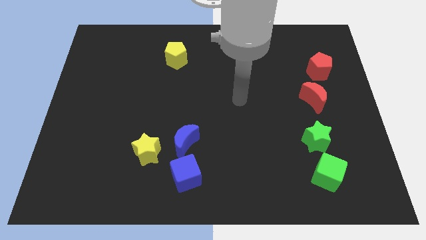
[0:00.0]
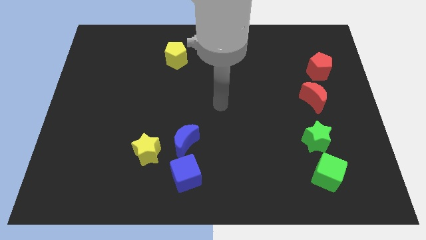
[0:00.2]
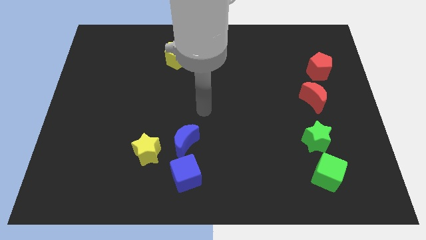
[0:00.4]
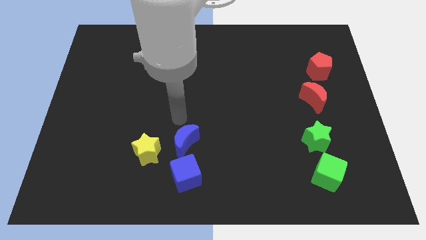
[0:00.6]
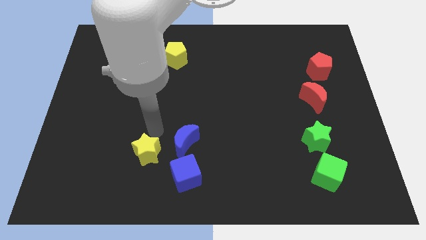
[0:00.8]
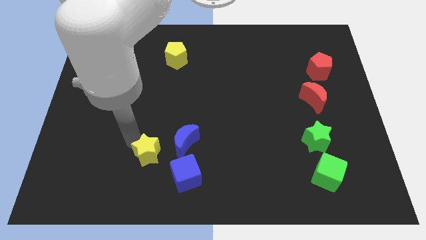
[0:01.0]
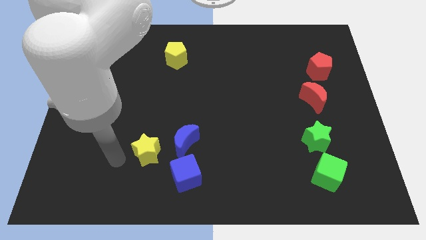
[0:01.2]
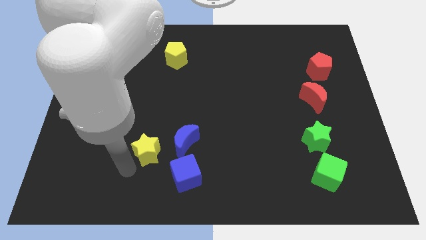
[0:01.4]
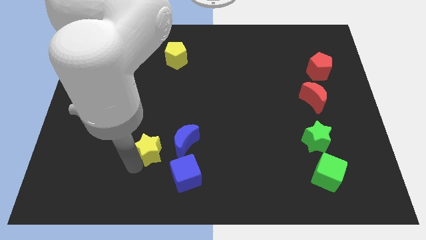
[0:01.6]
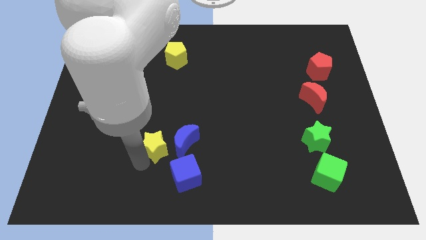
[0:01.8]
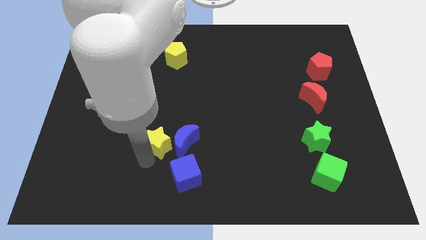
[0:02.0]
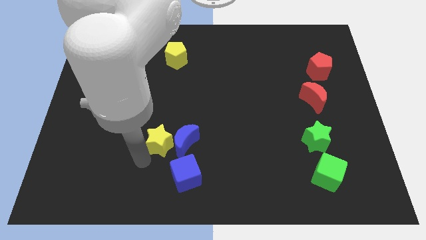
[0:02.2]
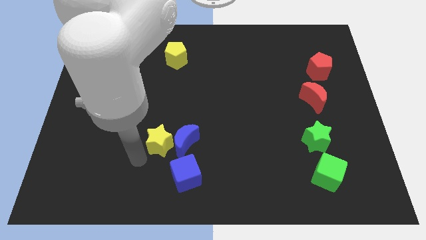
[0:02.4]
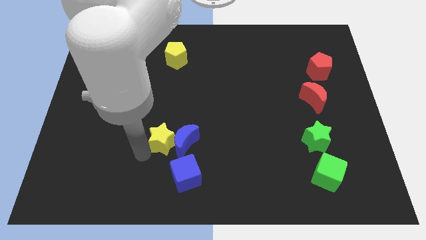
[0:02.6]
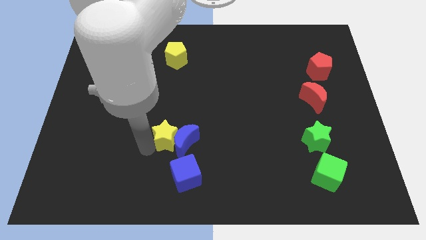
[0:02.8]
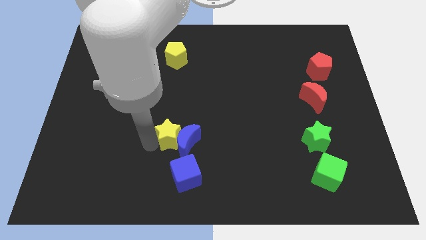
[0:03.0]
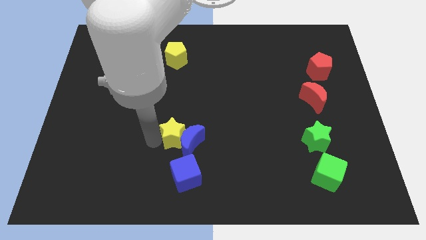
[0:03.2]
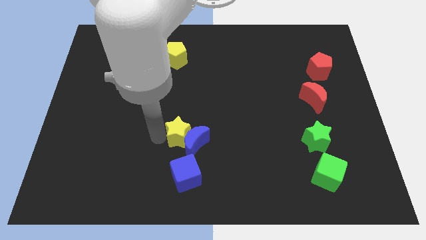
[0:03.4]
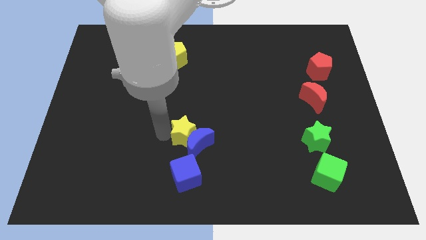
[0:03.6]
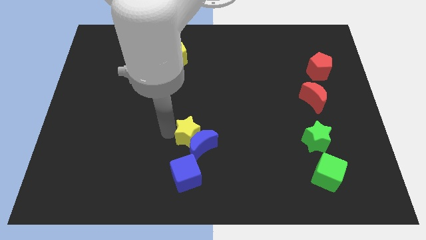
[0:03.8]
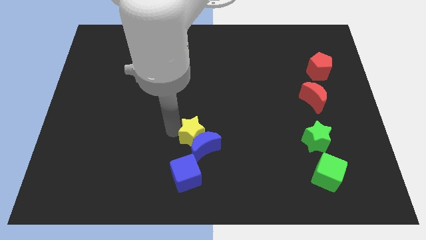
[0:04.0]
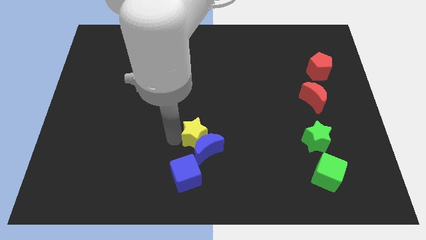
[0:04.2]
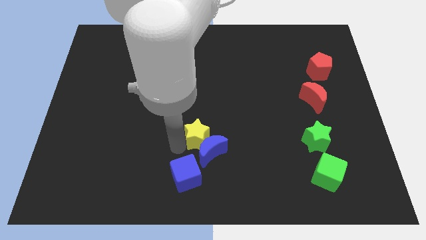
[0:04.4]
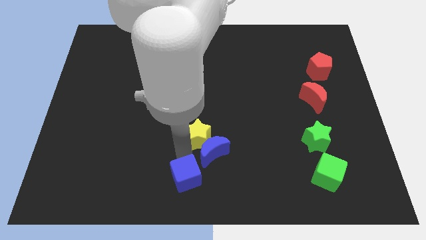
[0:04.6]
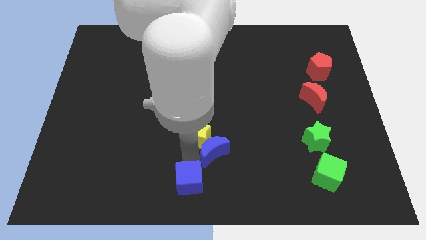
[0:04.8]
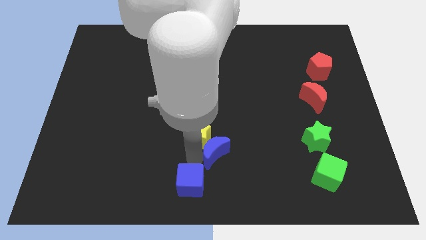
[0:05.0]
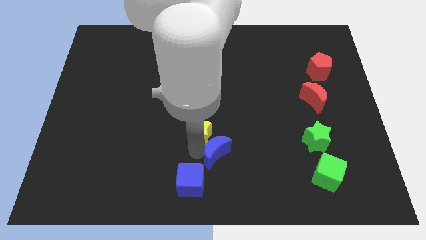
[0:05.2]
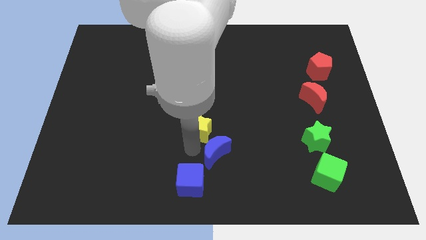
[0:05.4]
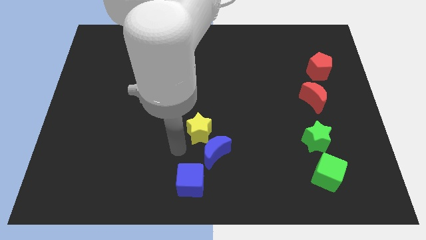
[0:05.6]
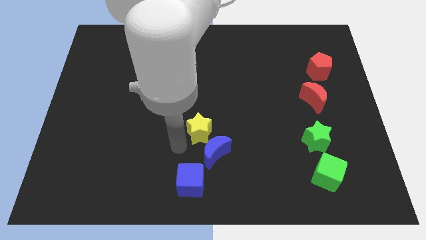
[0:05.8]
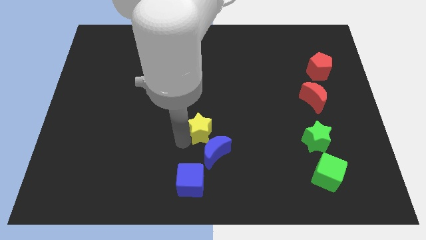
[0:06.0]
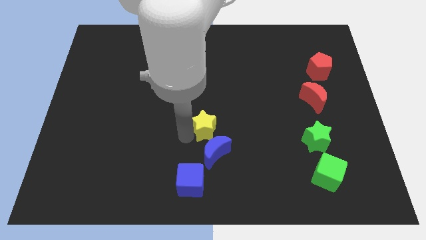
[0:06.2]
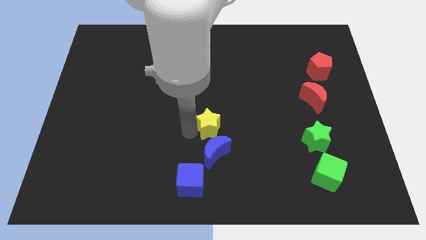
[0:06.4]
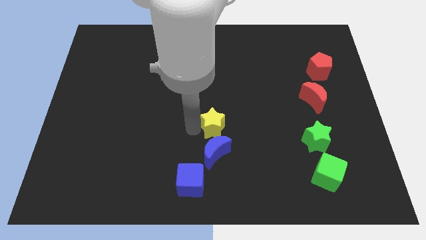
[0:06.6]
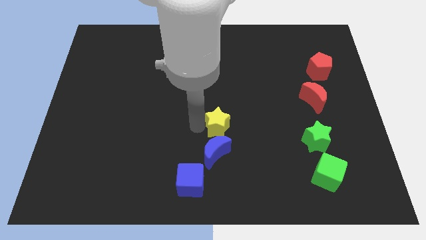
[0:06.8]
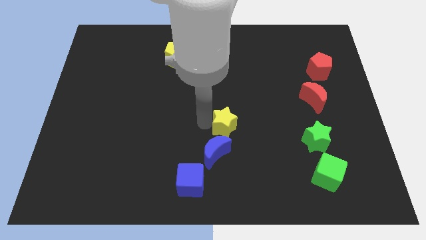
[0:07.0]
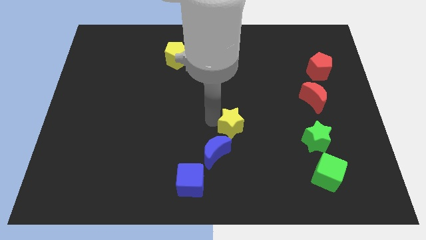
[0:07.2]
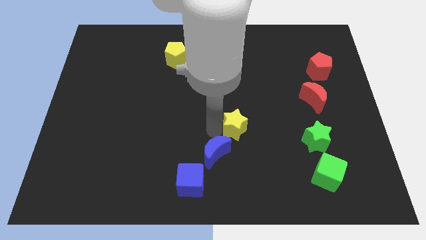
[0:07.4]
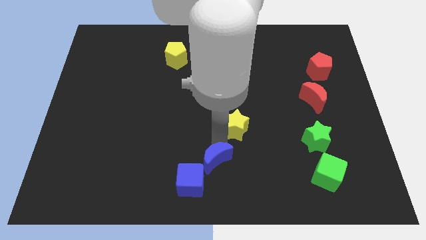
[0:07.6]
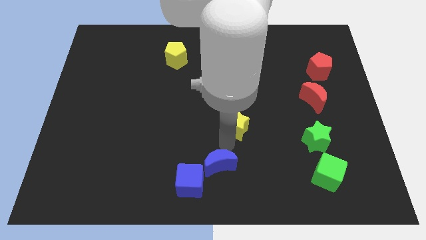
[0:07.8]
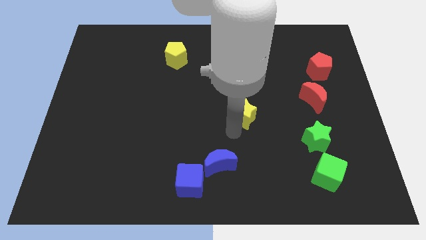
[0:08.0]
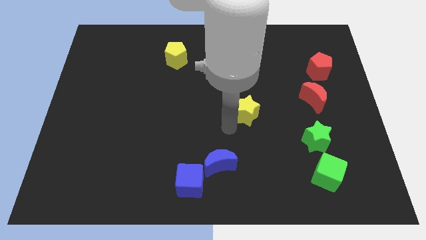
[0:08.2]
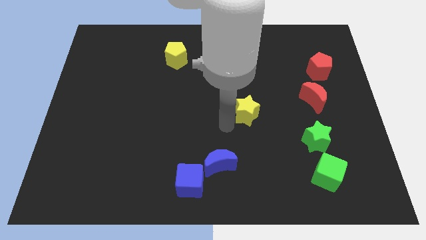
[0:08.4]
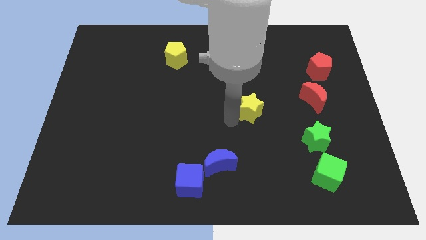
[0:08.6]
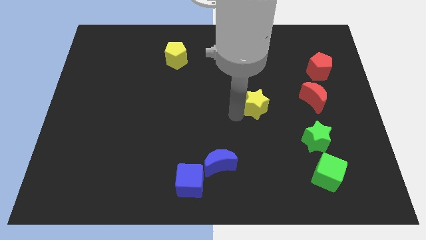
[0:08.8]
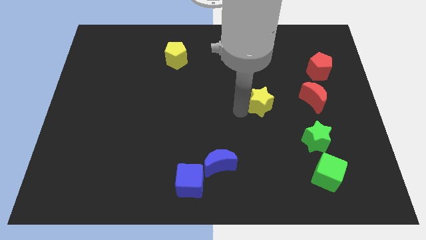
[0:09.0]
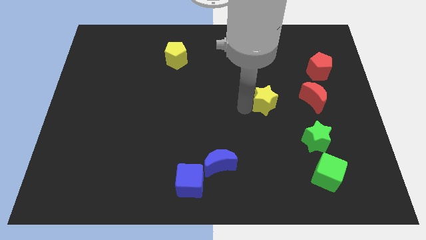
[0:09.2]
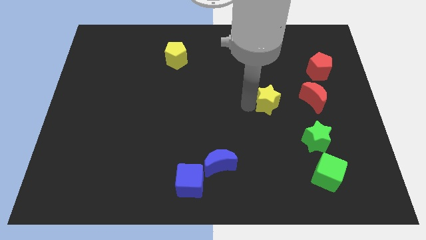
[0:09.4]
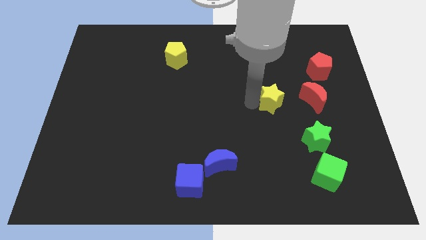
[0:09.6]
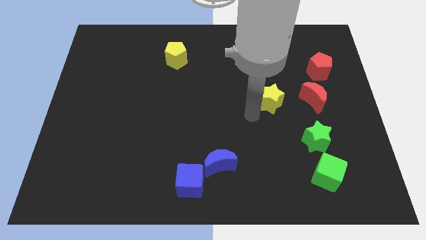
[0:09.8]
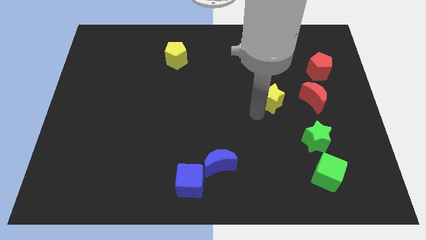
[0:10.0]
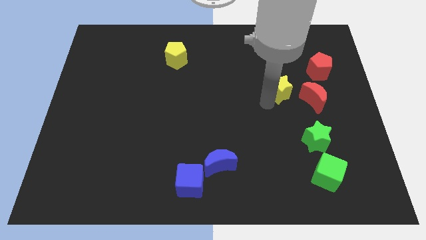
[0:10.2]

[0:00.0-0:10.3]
move the yellow star to the top left side of the red moon

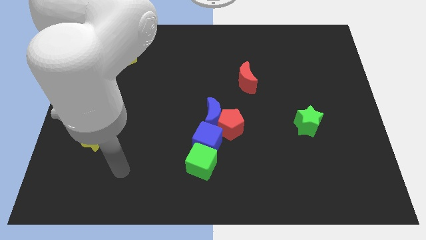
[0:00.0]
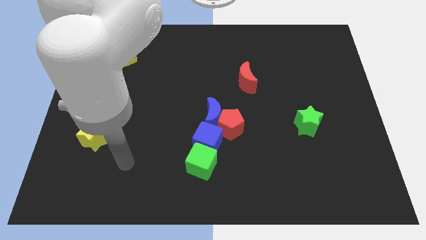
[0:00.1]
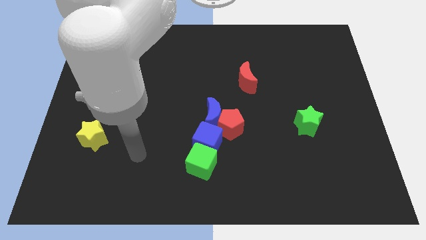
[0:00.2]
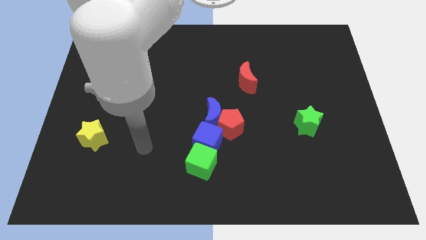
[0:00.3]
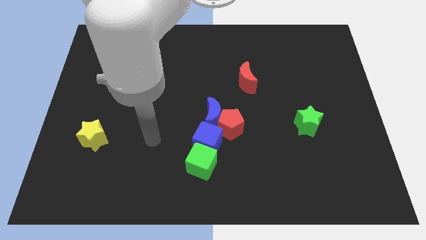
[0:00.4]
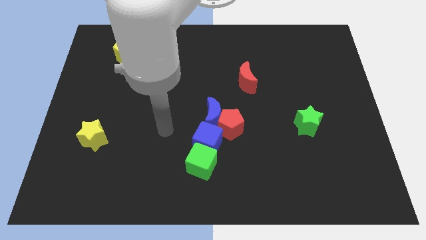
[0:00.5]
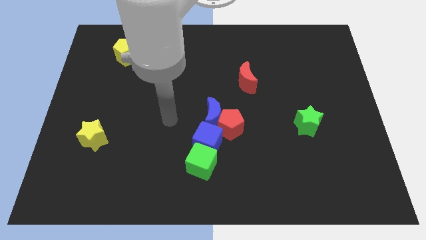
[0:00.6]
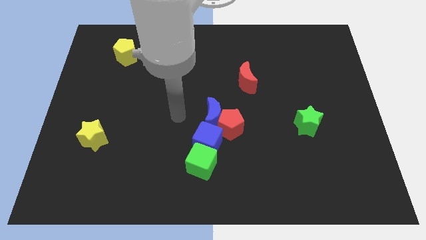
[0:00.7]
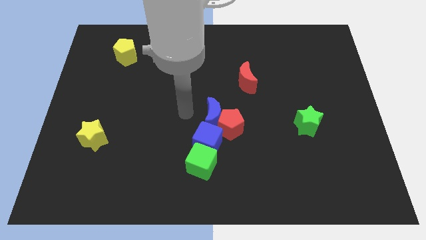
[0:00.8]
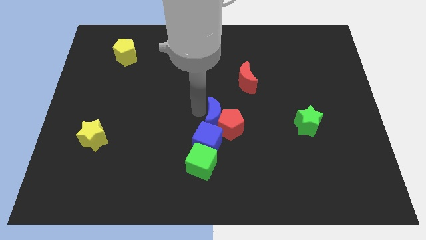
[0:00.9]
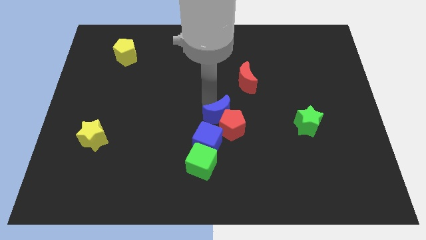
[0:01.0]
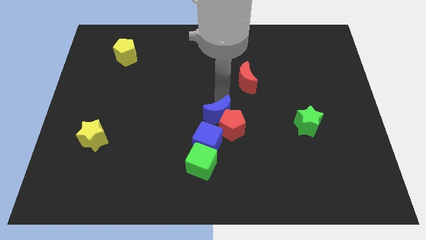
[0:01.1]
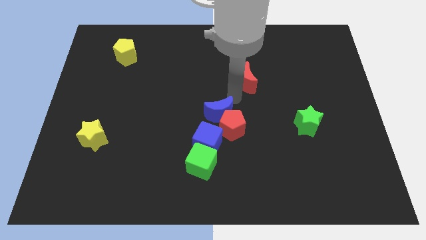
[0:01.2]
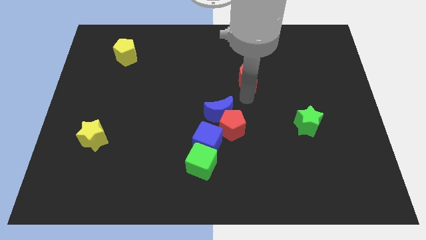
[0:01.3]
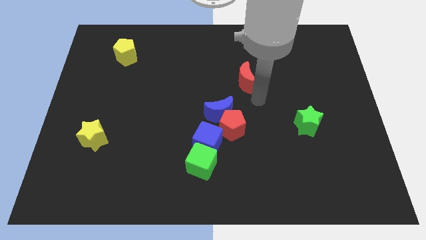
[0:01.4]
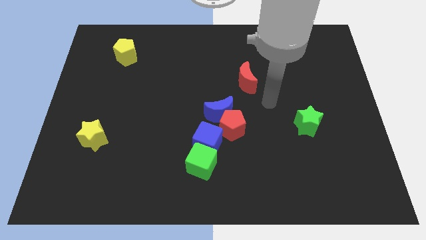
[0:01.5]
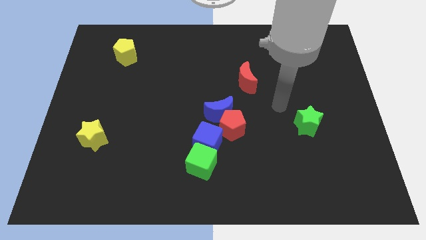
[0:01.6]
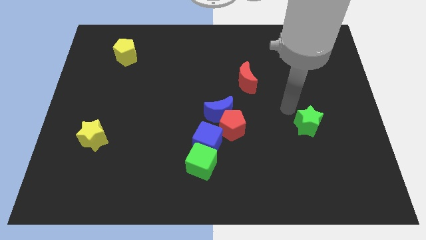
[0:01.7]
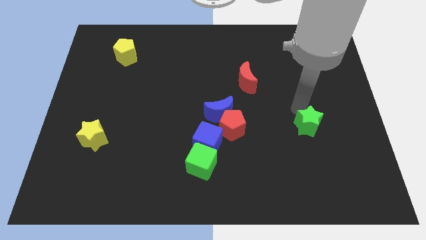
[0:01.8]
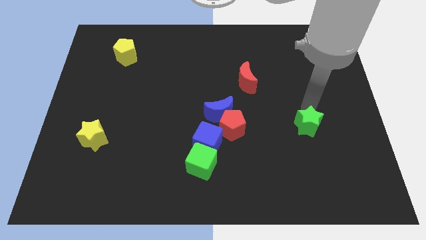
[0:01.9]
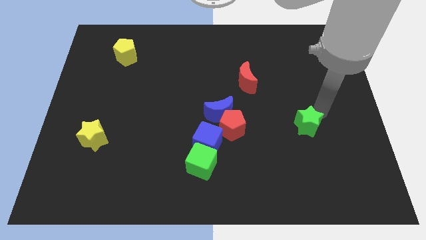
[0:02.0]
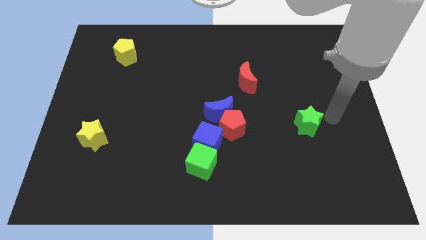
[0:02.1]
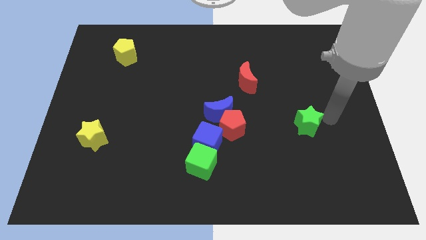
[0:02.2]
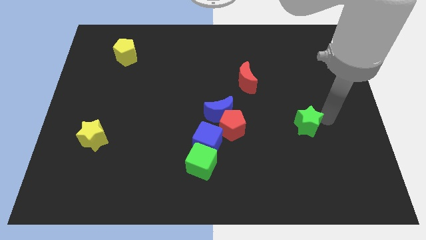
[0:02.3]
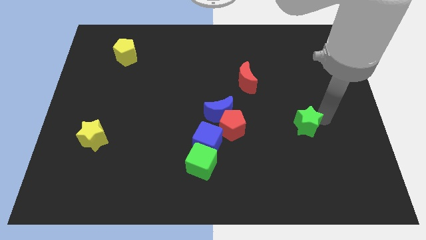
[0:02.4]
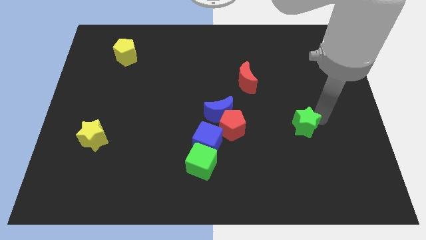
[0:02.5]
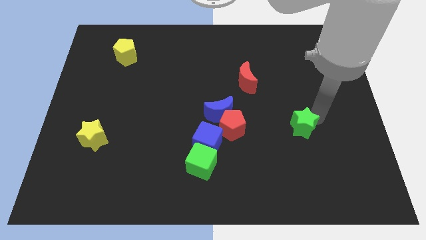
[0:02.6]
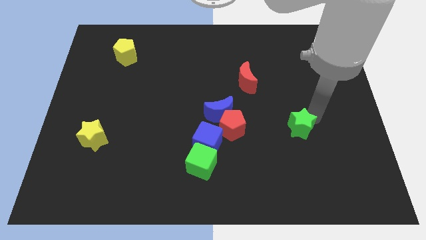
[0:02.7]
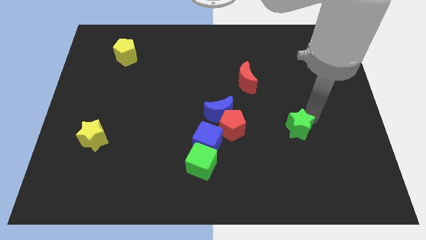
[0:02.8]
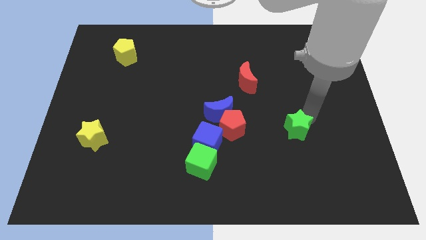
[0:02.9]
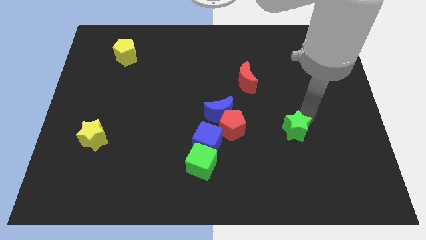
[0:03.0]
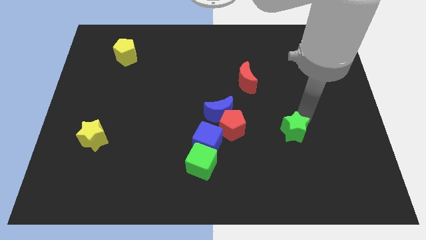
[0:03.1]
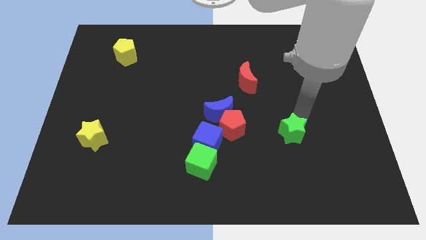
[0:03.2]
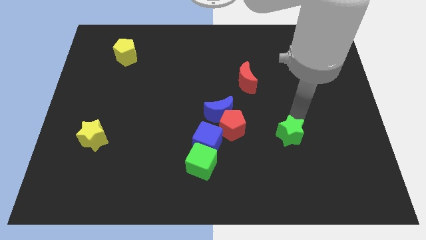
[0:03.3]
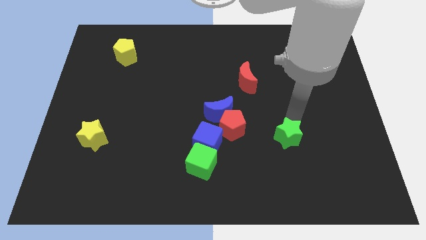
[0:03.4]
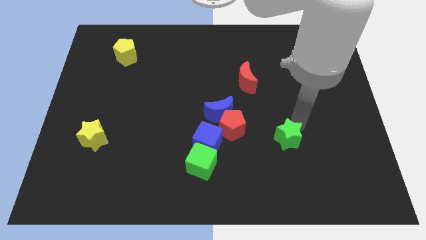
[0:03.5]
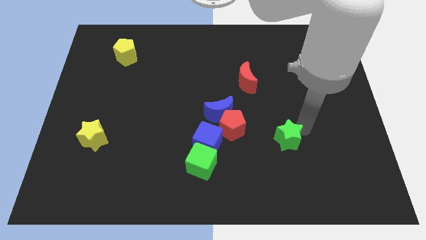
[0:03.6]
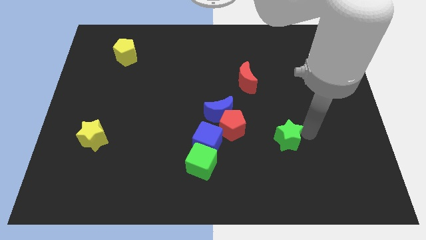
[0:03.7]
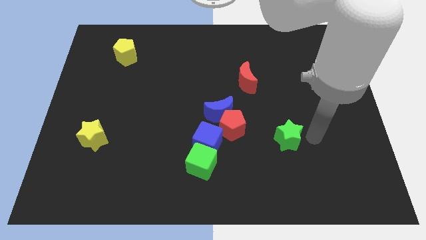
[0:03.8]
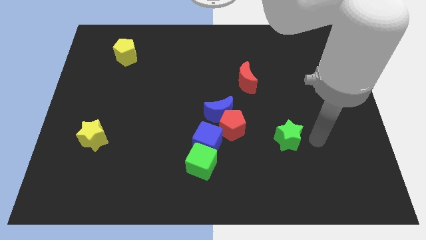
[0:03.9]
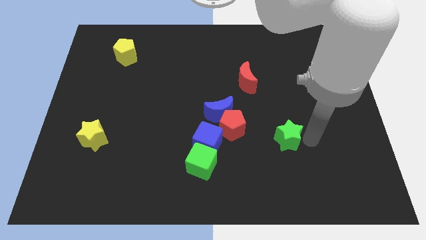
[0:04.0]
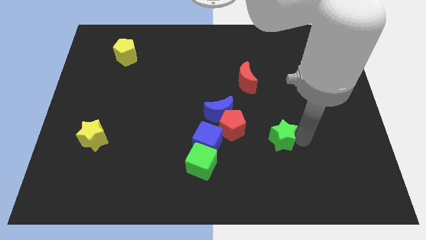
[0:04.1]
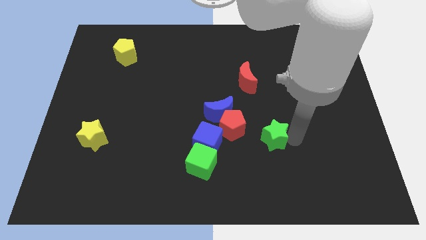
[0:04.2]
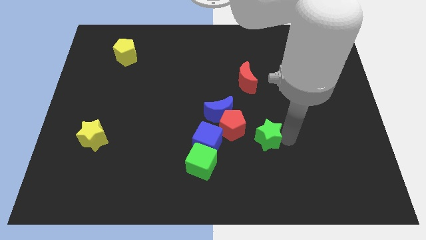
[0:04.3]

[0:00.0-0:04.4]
move the green star to the bottom right of the blue moon
